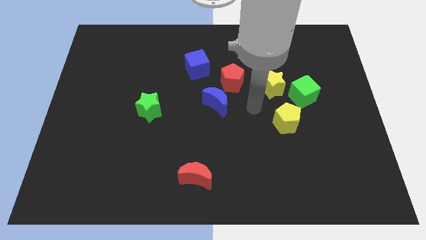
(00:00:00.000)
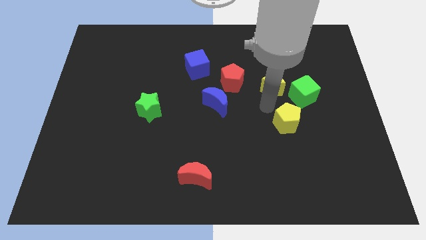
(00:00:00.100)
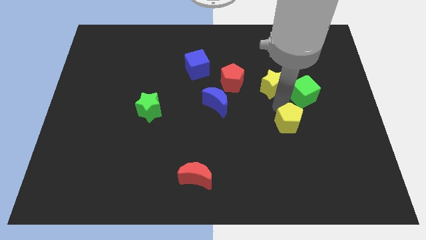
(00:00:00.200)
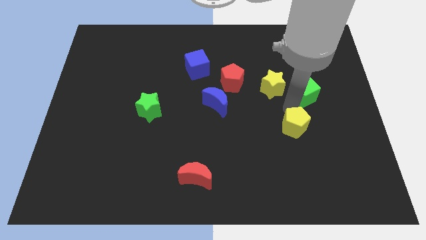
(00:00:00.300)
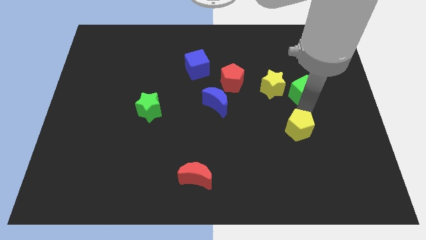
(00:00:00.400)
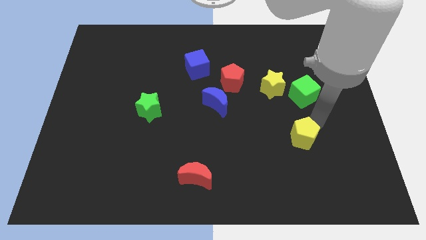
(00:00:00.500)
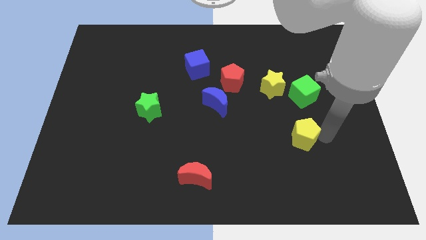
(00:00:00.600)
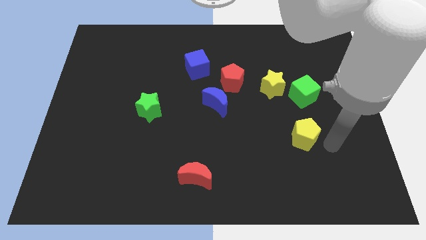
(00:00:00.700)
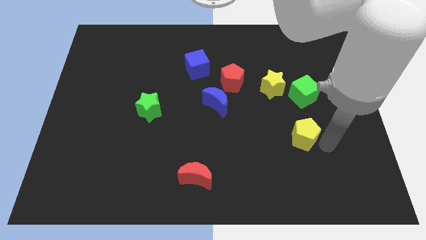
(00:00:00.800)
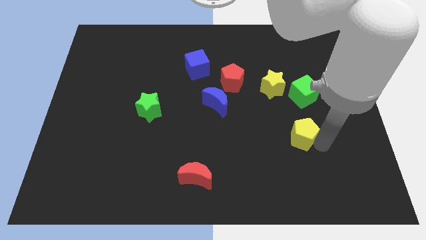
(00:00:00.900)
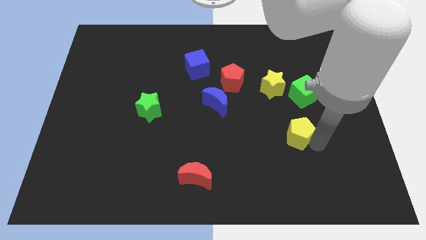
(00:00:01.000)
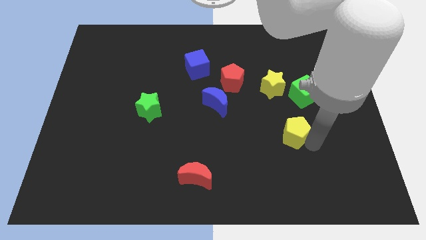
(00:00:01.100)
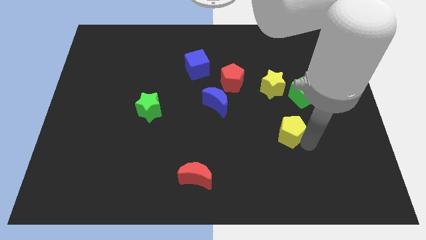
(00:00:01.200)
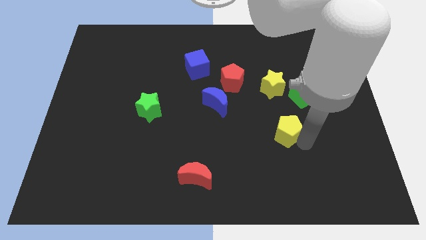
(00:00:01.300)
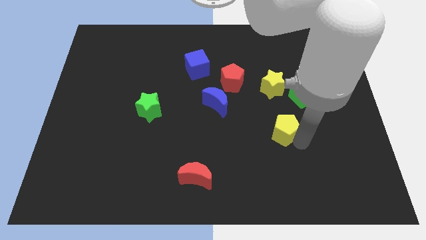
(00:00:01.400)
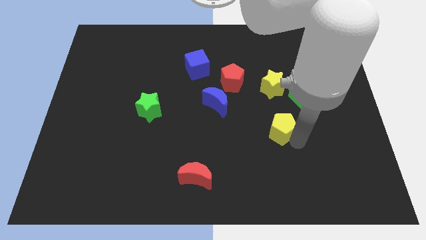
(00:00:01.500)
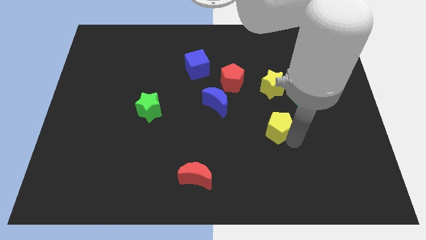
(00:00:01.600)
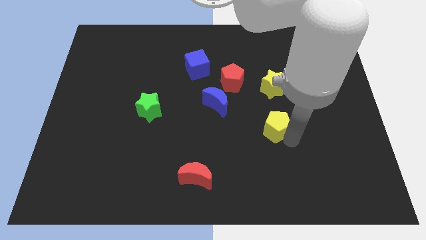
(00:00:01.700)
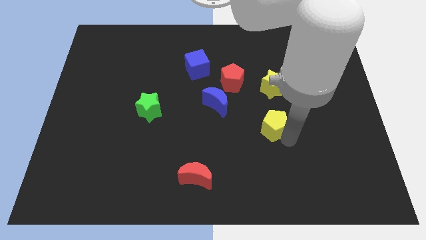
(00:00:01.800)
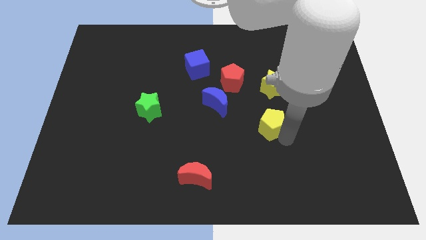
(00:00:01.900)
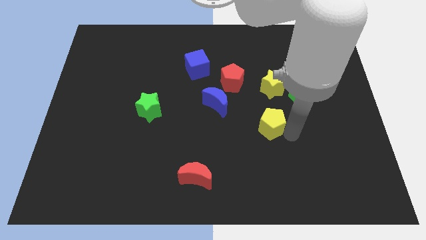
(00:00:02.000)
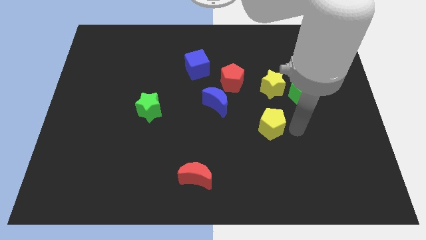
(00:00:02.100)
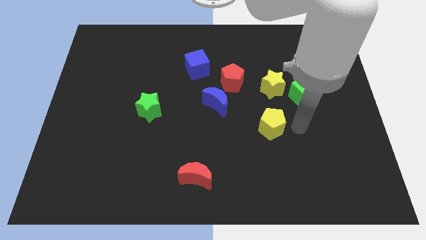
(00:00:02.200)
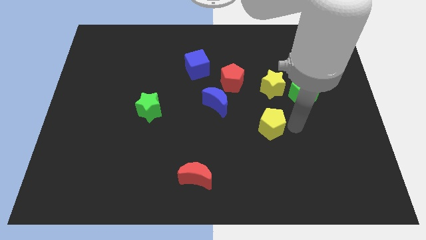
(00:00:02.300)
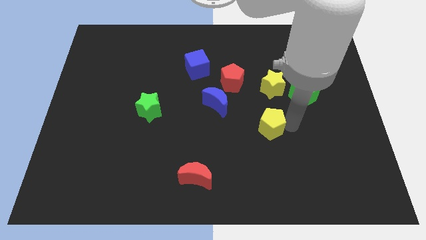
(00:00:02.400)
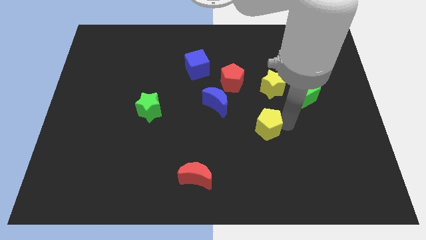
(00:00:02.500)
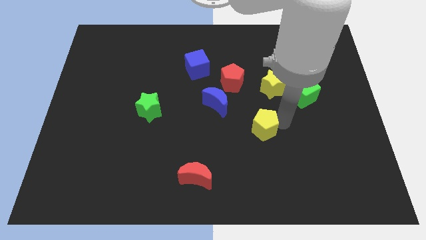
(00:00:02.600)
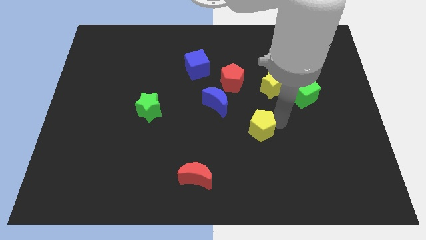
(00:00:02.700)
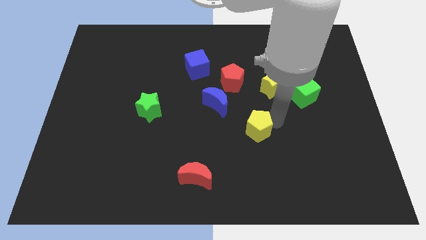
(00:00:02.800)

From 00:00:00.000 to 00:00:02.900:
slightly push the yellow pentagon left

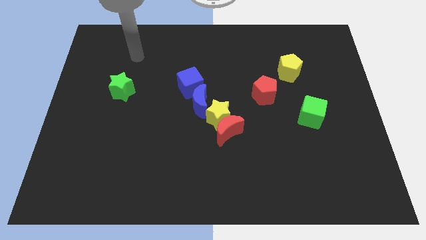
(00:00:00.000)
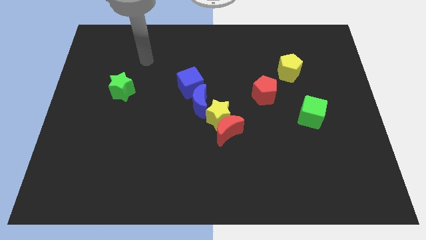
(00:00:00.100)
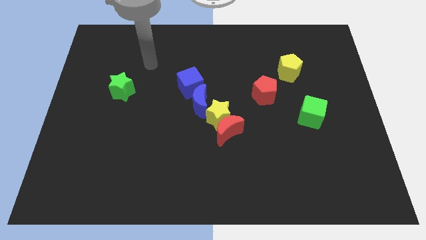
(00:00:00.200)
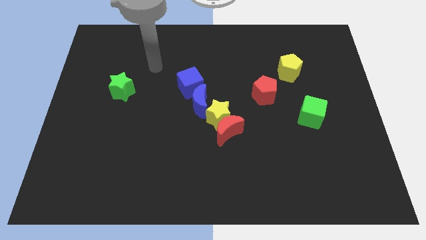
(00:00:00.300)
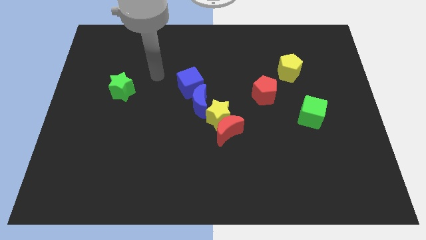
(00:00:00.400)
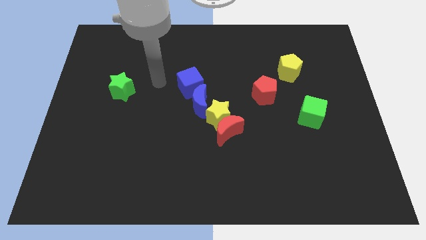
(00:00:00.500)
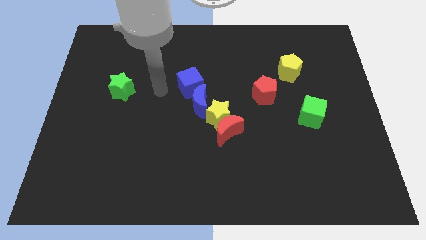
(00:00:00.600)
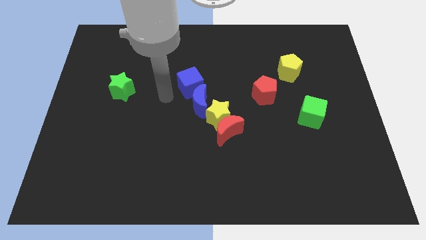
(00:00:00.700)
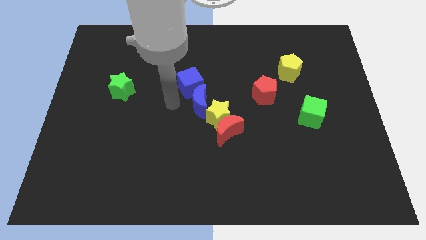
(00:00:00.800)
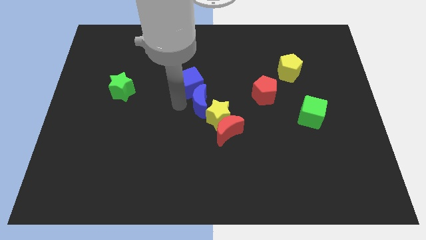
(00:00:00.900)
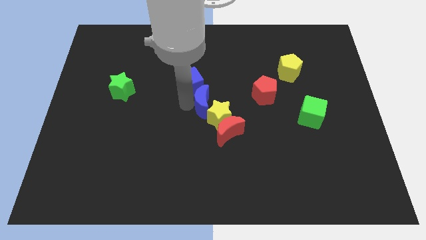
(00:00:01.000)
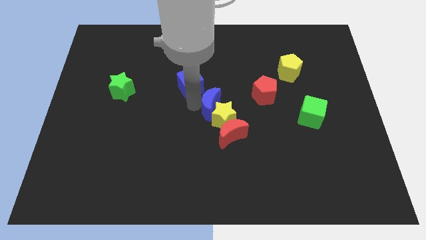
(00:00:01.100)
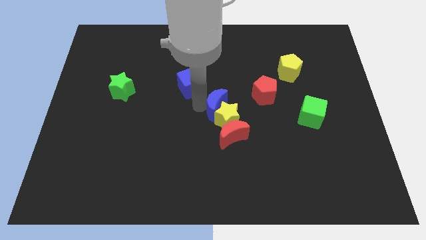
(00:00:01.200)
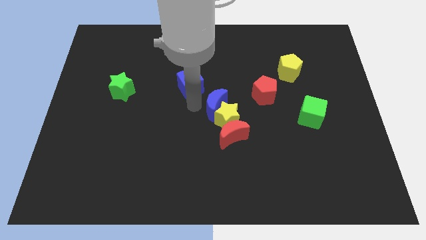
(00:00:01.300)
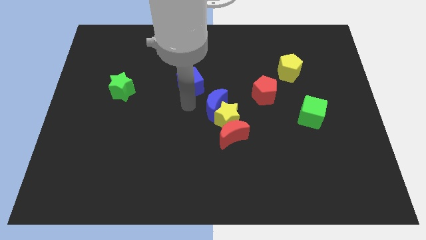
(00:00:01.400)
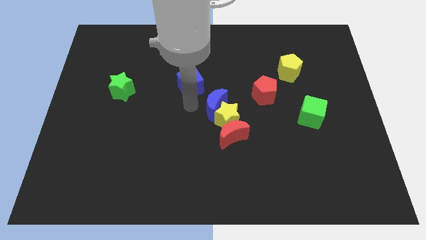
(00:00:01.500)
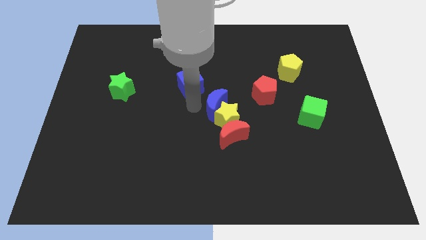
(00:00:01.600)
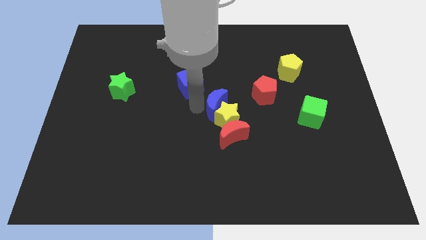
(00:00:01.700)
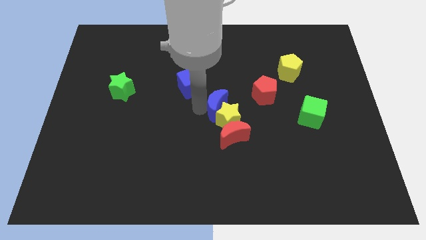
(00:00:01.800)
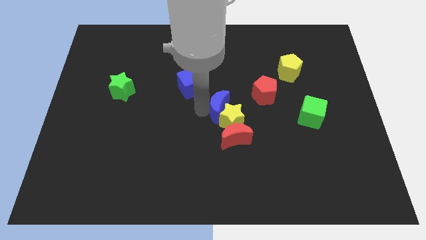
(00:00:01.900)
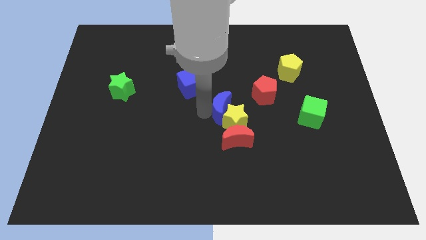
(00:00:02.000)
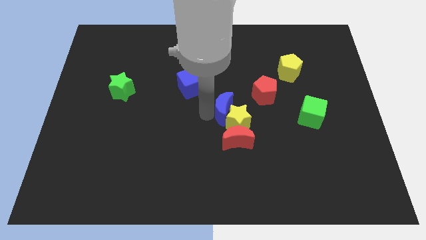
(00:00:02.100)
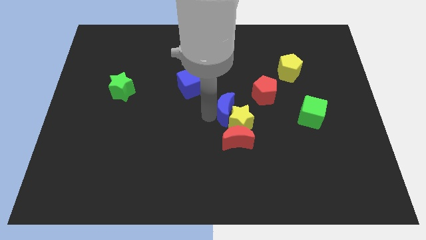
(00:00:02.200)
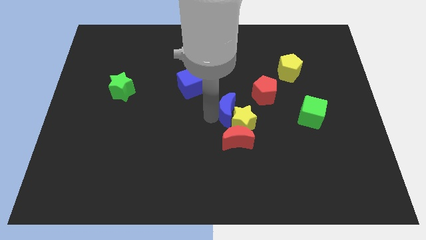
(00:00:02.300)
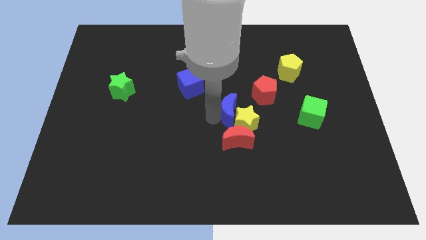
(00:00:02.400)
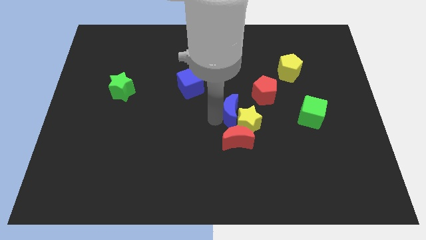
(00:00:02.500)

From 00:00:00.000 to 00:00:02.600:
move the blue moon somewhat to the right

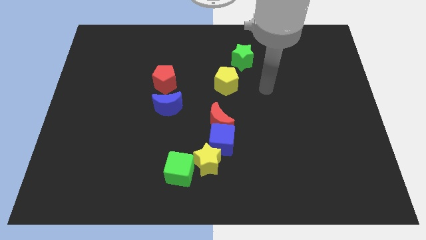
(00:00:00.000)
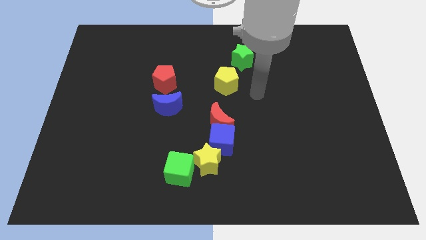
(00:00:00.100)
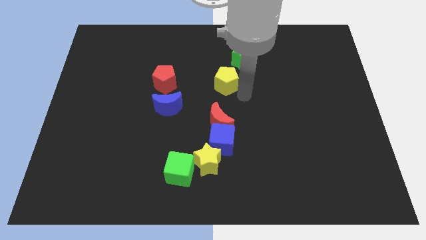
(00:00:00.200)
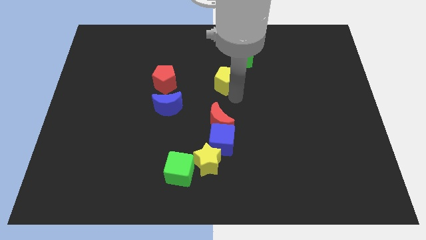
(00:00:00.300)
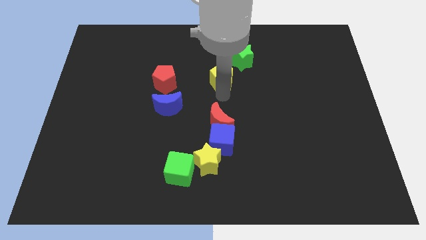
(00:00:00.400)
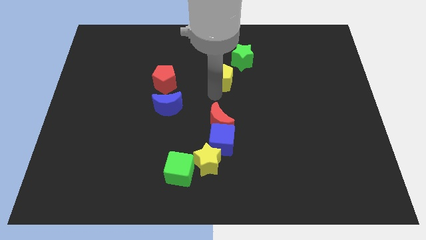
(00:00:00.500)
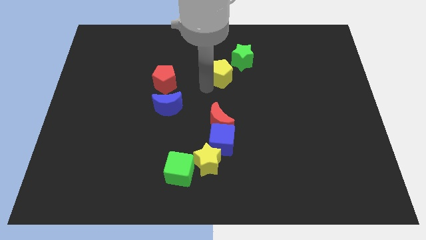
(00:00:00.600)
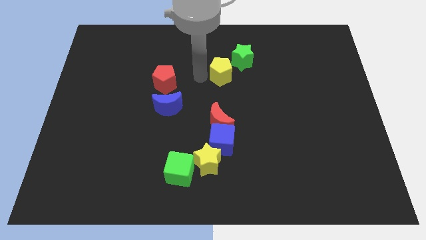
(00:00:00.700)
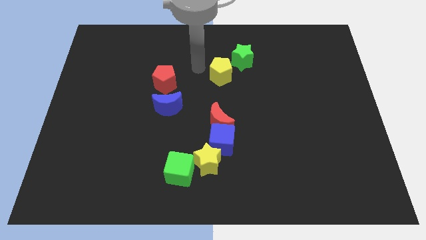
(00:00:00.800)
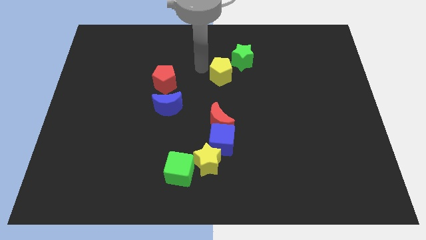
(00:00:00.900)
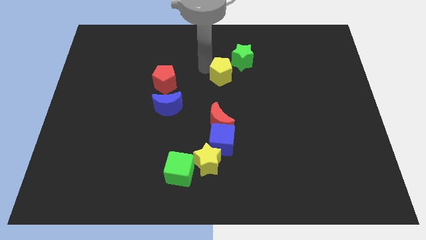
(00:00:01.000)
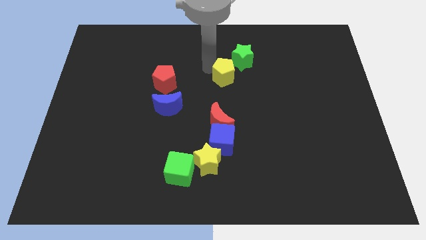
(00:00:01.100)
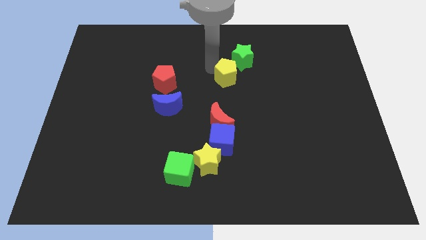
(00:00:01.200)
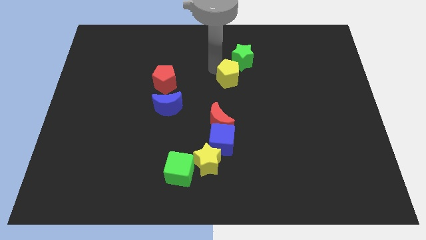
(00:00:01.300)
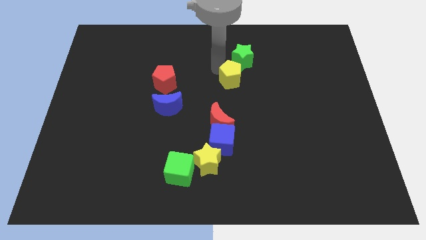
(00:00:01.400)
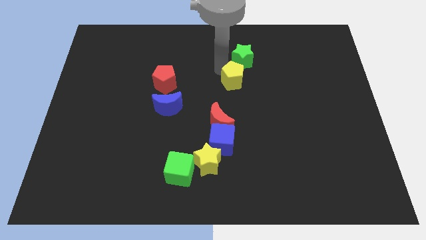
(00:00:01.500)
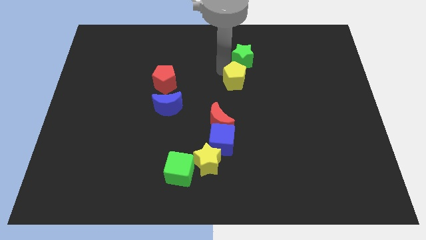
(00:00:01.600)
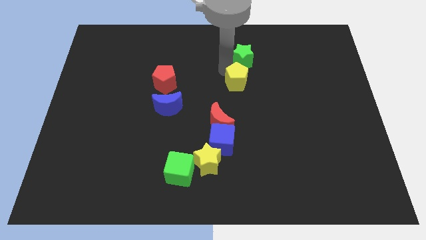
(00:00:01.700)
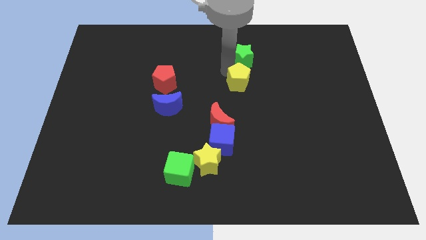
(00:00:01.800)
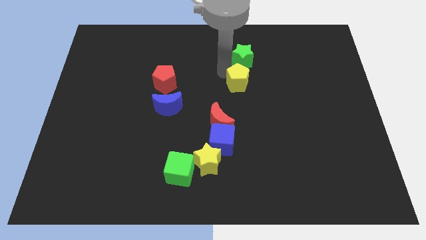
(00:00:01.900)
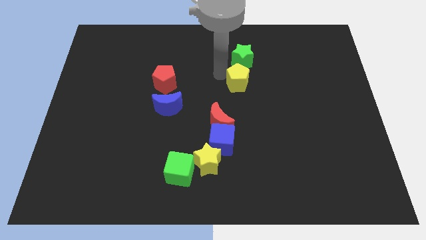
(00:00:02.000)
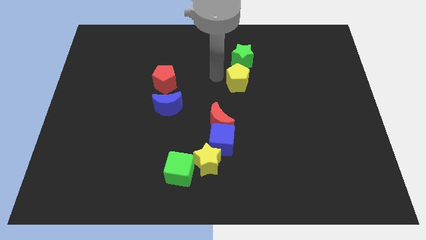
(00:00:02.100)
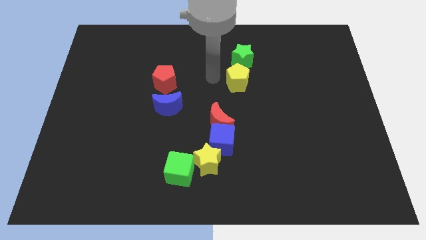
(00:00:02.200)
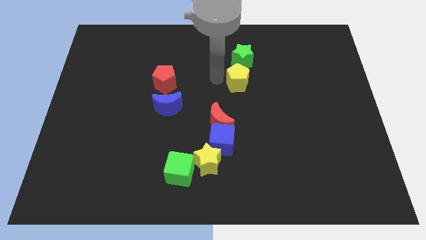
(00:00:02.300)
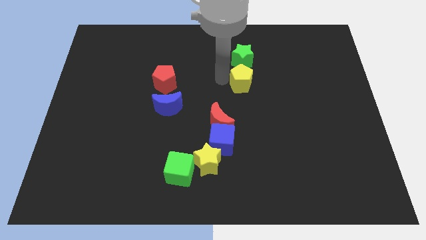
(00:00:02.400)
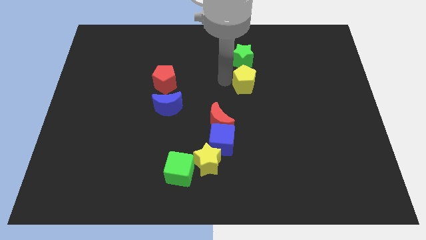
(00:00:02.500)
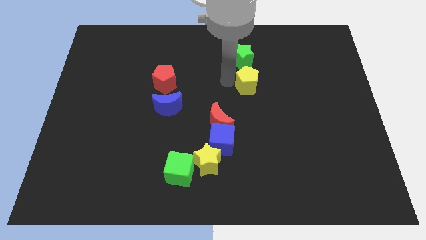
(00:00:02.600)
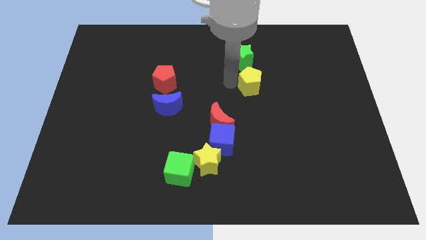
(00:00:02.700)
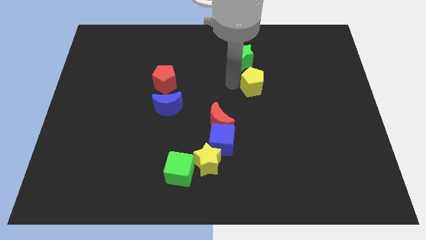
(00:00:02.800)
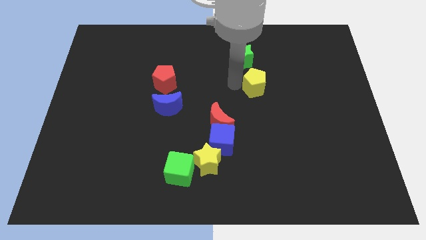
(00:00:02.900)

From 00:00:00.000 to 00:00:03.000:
slide the yellow pentagon to the right a little
